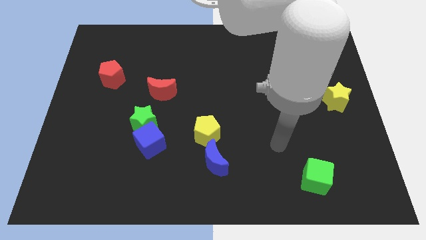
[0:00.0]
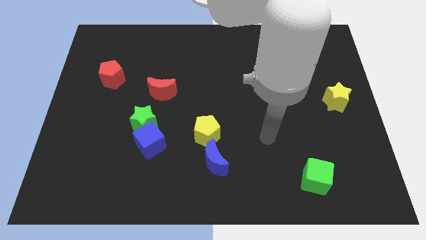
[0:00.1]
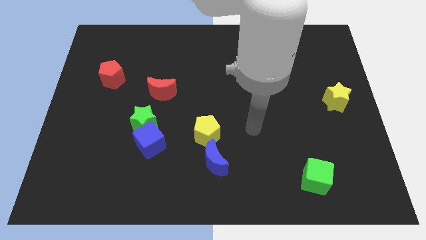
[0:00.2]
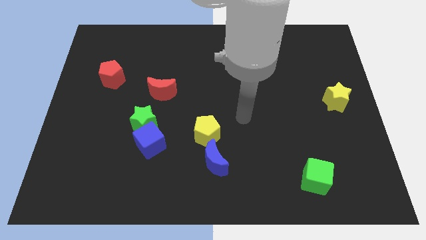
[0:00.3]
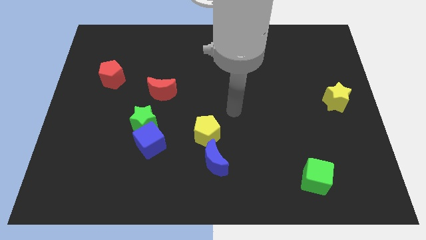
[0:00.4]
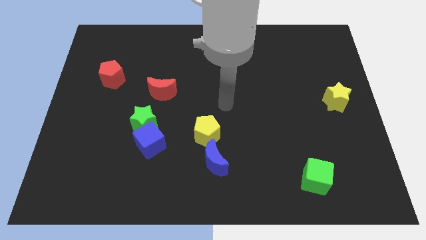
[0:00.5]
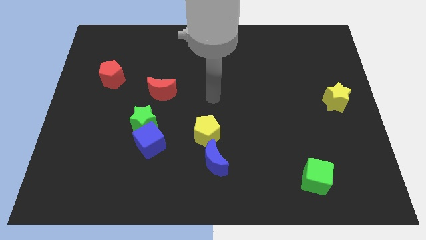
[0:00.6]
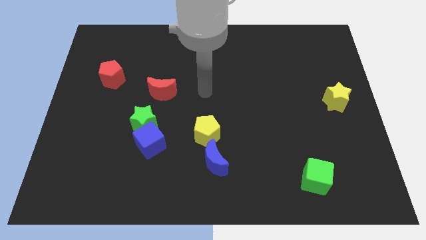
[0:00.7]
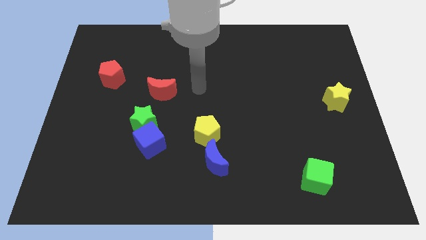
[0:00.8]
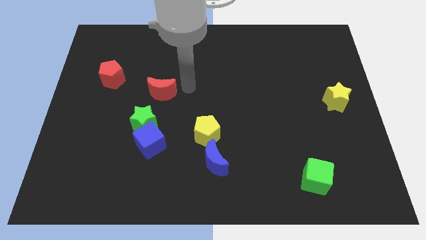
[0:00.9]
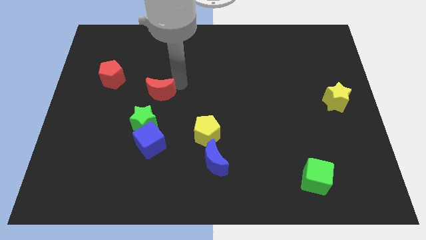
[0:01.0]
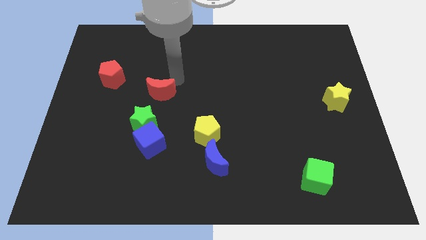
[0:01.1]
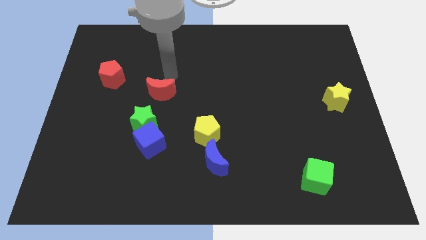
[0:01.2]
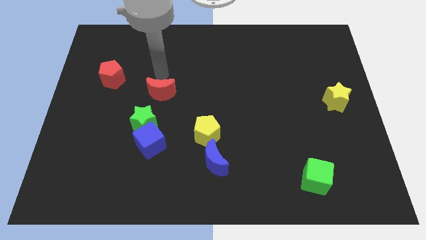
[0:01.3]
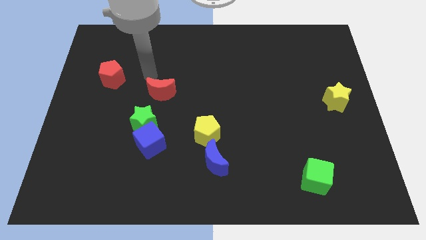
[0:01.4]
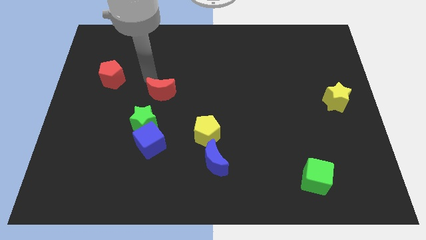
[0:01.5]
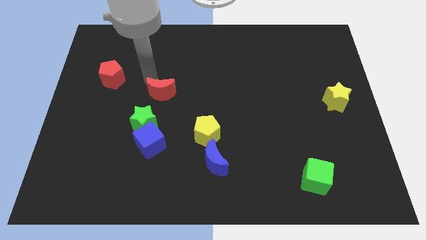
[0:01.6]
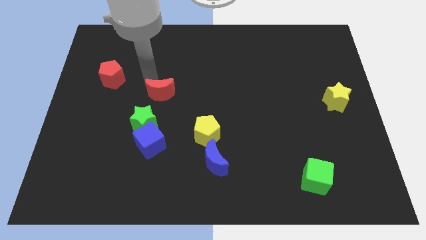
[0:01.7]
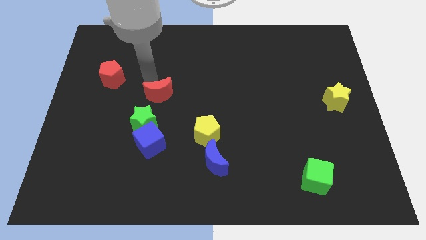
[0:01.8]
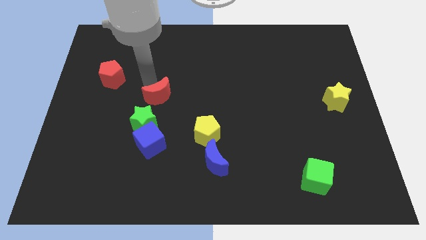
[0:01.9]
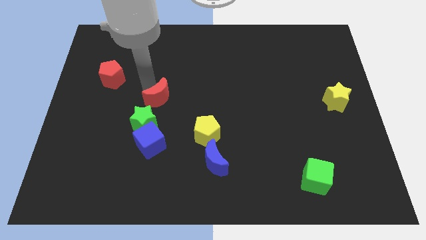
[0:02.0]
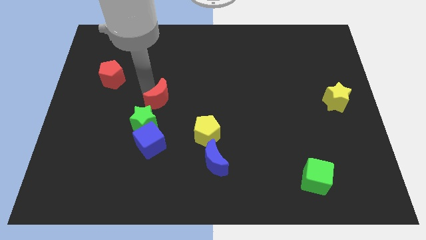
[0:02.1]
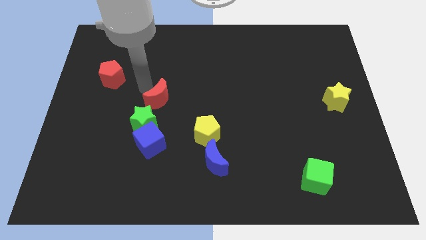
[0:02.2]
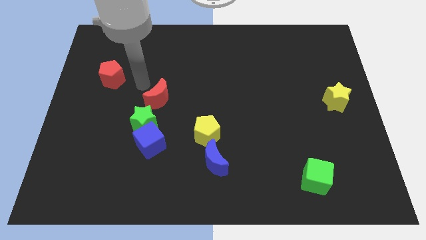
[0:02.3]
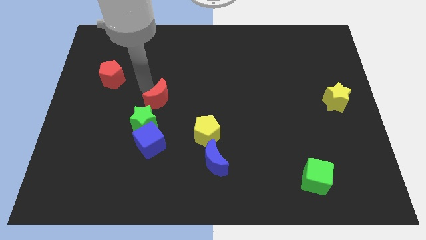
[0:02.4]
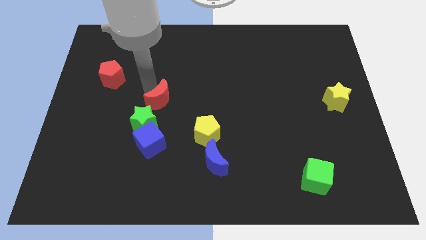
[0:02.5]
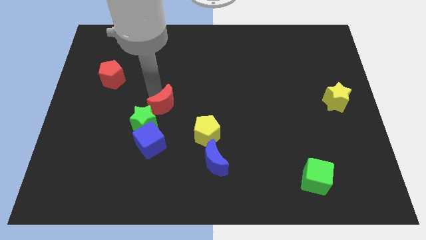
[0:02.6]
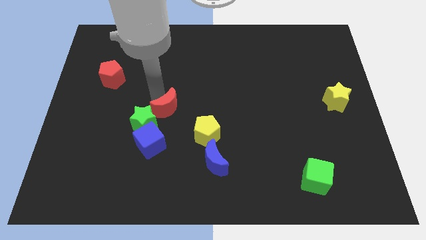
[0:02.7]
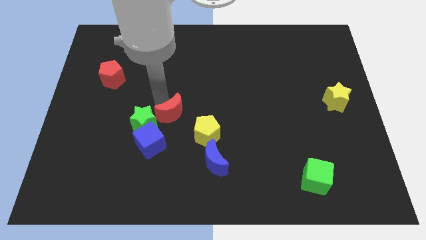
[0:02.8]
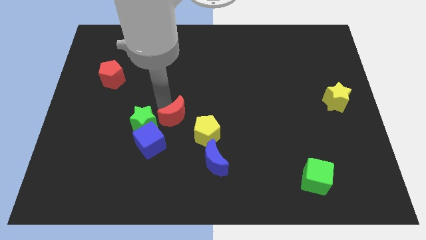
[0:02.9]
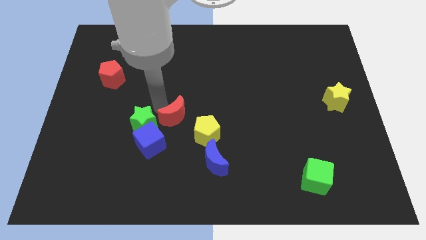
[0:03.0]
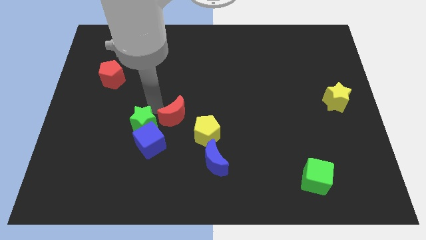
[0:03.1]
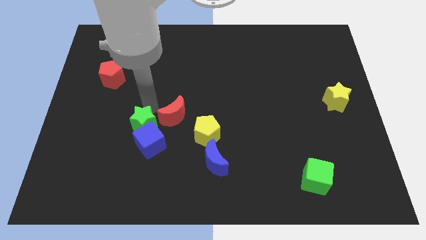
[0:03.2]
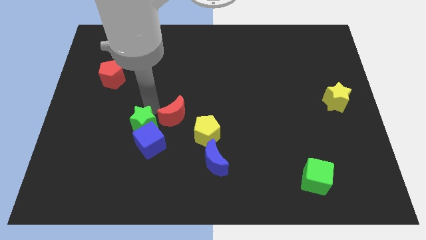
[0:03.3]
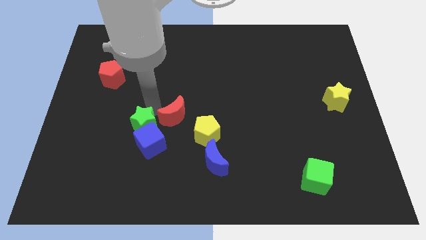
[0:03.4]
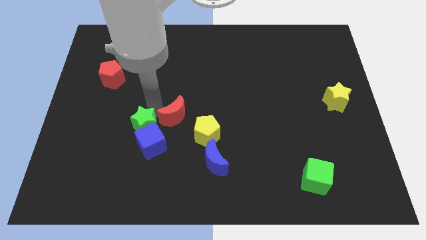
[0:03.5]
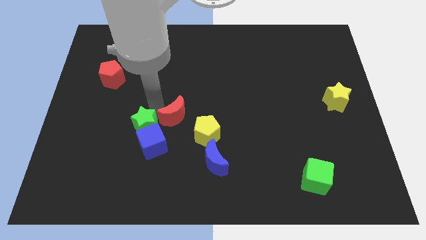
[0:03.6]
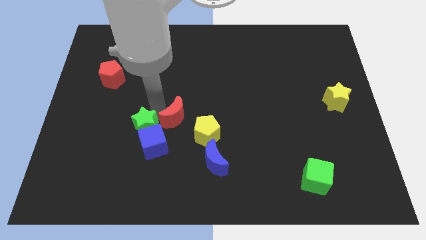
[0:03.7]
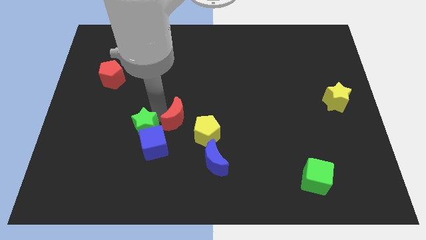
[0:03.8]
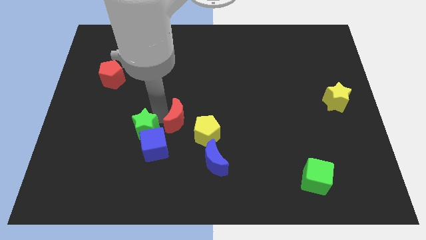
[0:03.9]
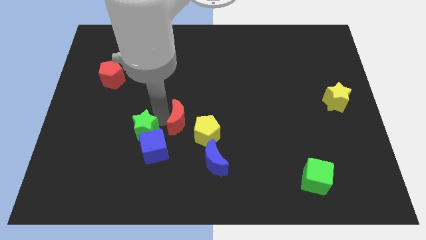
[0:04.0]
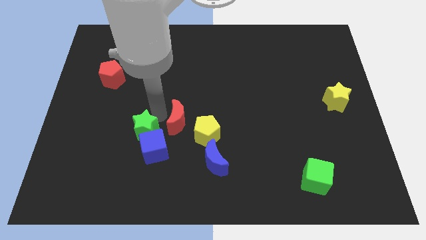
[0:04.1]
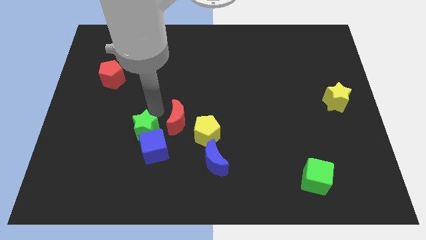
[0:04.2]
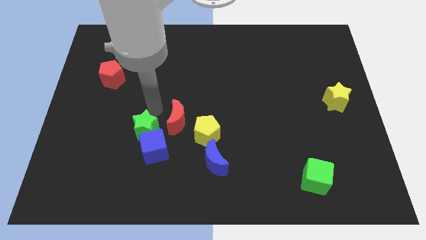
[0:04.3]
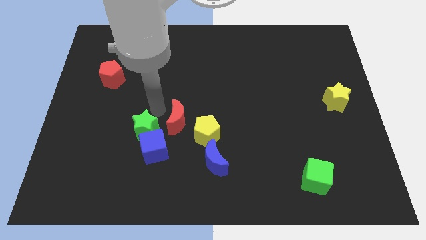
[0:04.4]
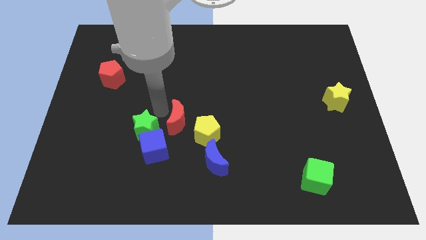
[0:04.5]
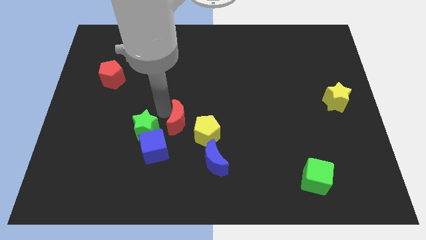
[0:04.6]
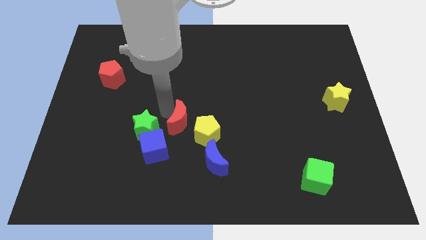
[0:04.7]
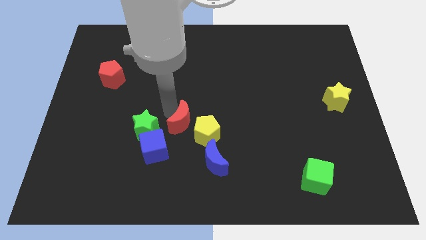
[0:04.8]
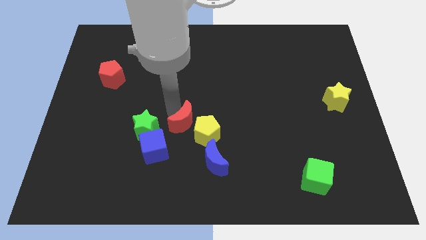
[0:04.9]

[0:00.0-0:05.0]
push the red moon next to the yellow pentagon

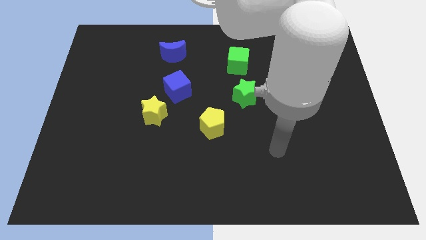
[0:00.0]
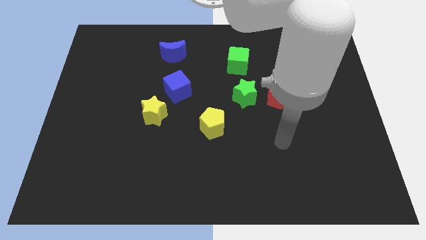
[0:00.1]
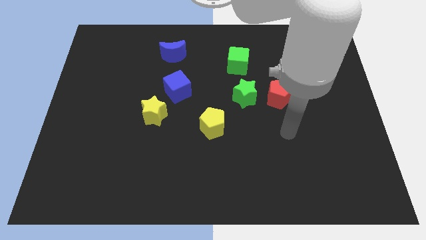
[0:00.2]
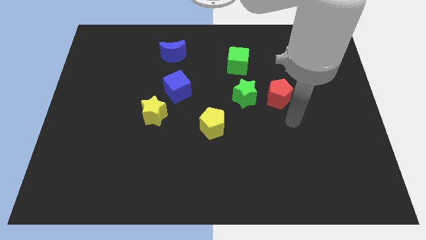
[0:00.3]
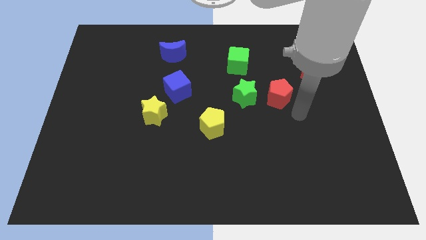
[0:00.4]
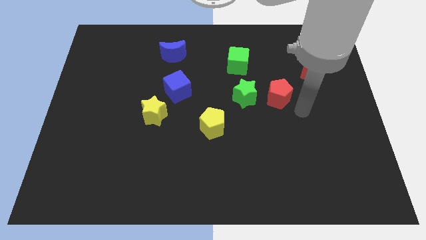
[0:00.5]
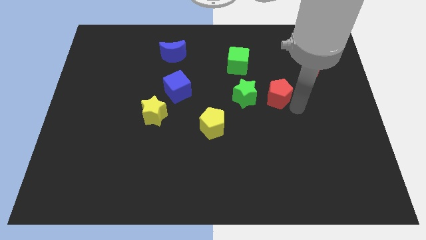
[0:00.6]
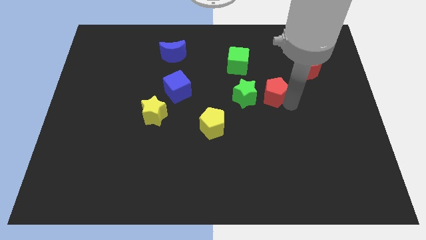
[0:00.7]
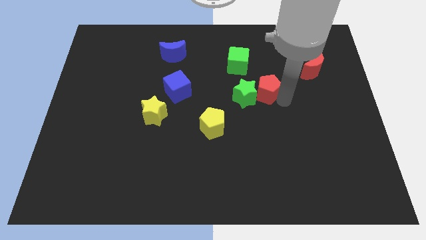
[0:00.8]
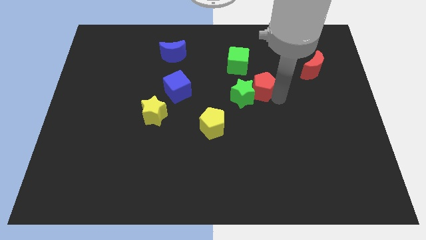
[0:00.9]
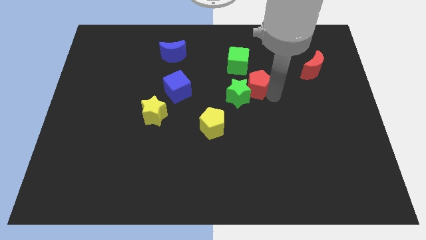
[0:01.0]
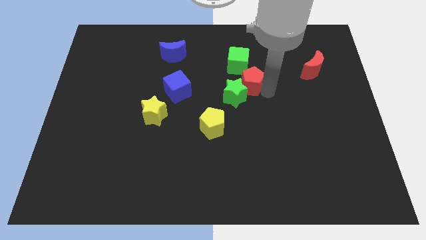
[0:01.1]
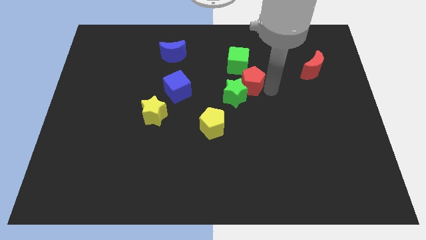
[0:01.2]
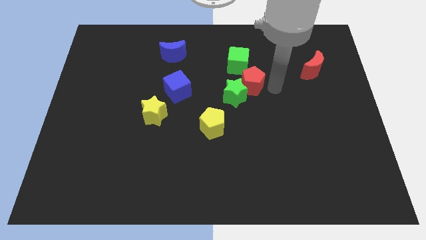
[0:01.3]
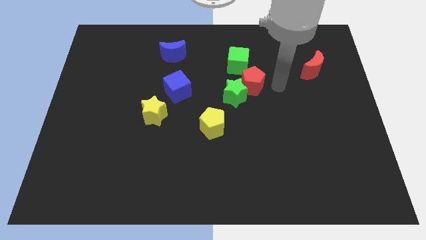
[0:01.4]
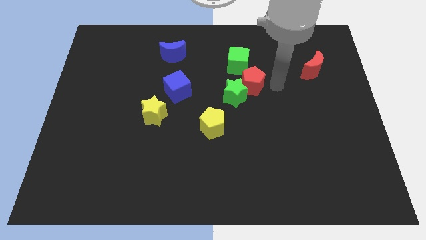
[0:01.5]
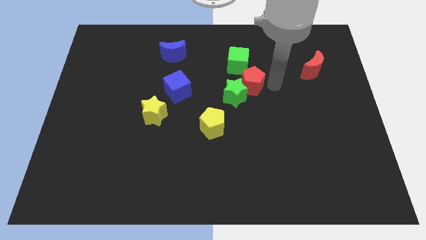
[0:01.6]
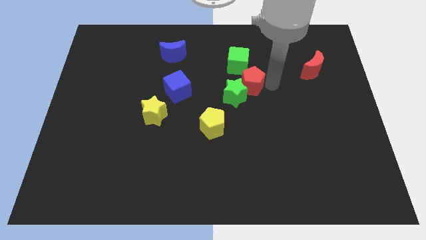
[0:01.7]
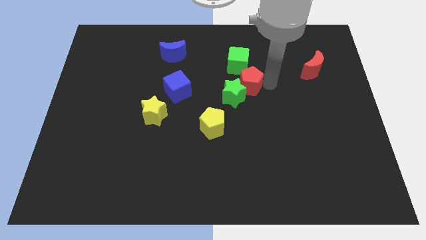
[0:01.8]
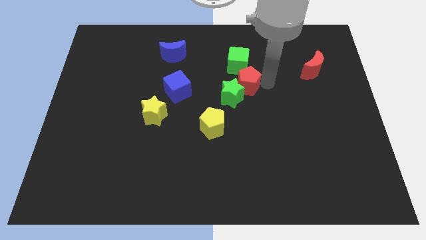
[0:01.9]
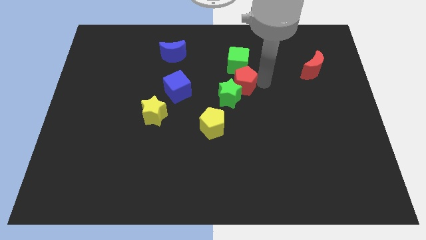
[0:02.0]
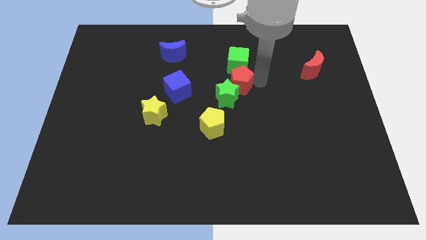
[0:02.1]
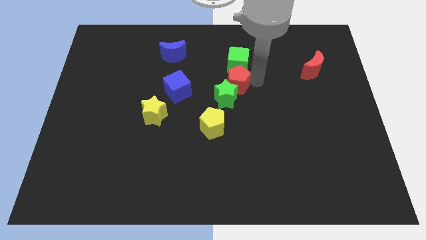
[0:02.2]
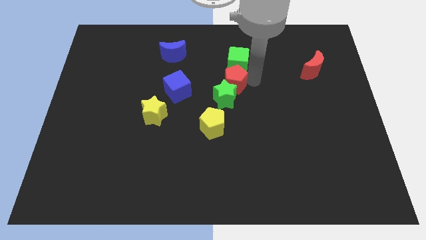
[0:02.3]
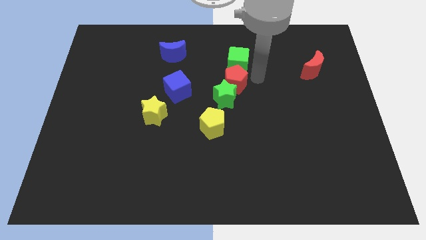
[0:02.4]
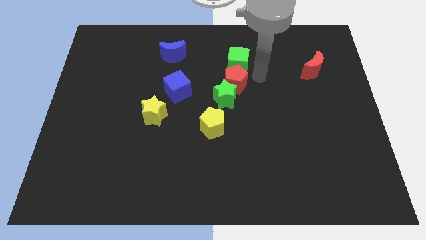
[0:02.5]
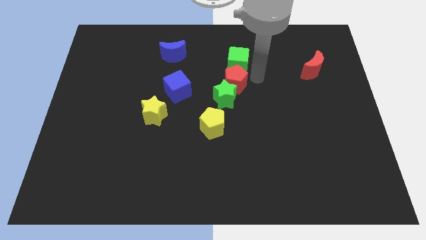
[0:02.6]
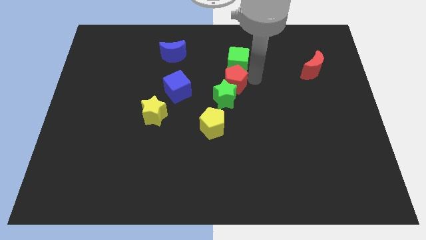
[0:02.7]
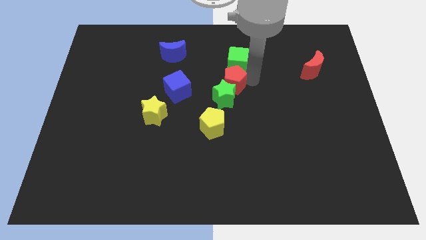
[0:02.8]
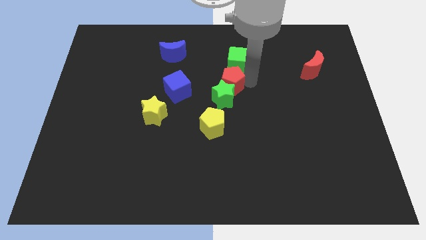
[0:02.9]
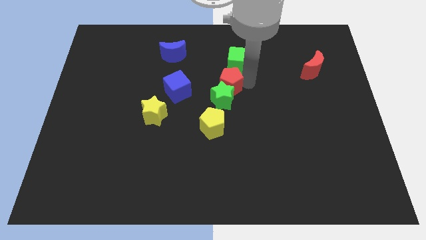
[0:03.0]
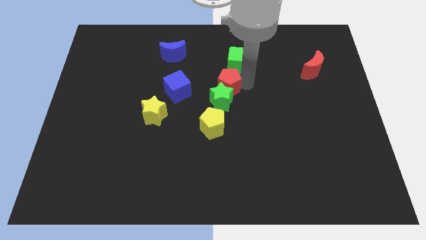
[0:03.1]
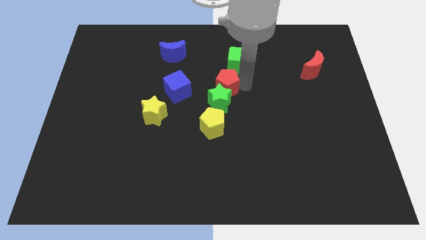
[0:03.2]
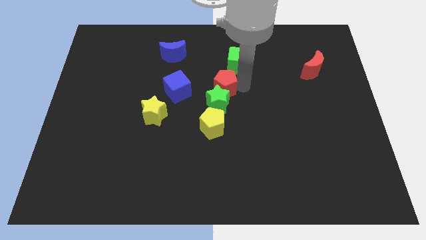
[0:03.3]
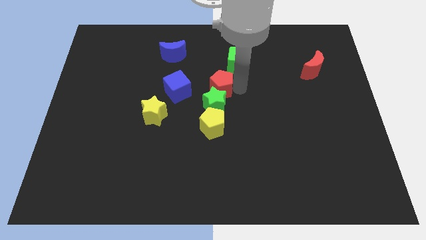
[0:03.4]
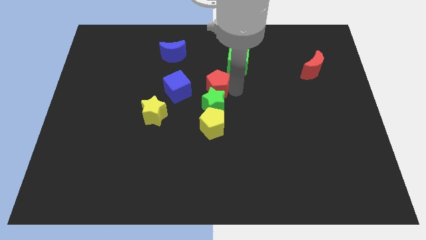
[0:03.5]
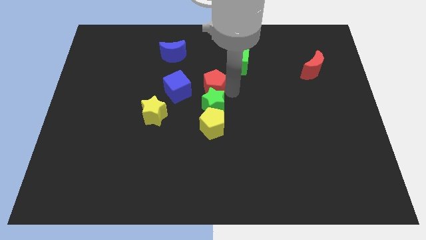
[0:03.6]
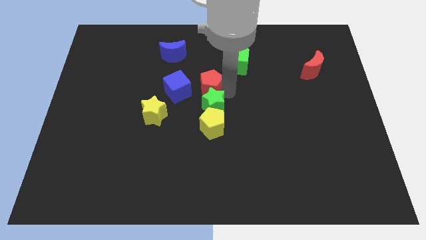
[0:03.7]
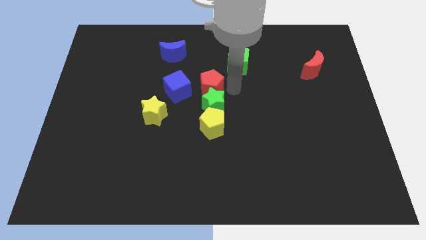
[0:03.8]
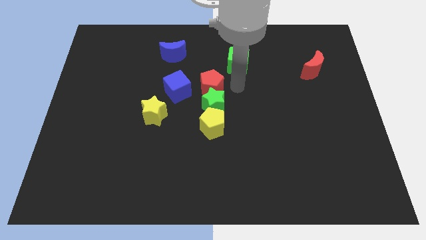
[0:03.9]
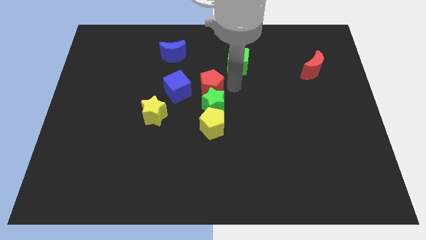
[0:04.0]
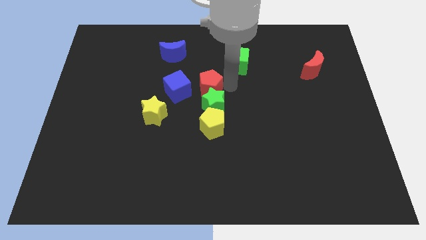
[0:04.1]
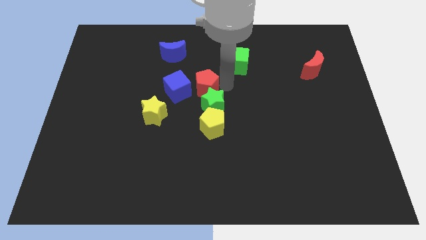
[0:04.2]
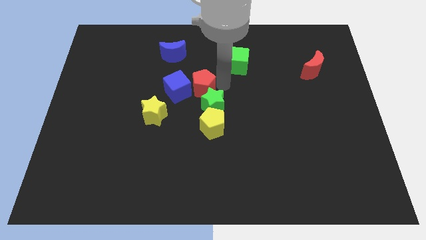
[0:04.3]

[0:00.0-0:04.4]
push the red pentagon to the blue cube
